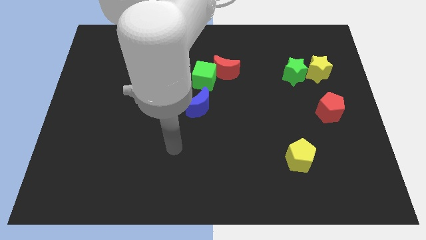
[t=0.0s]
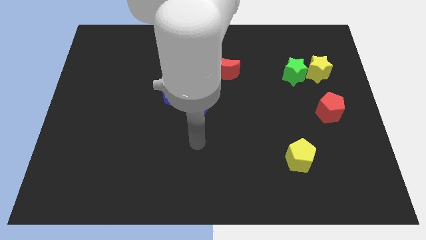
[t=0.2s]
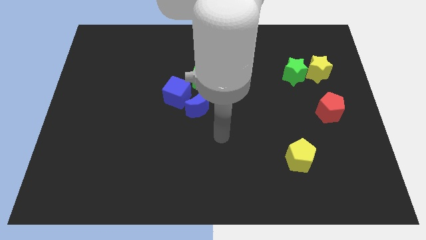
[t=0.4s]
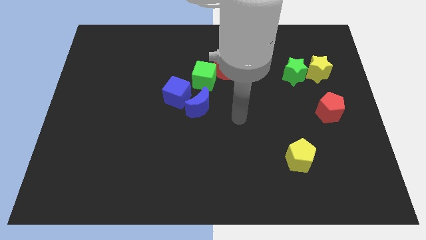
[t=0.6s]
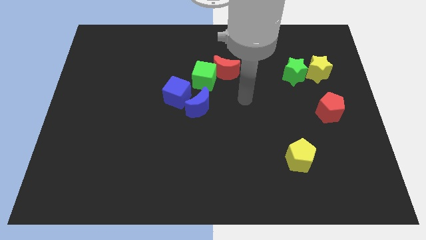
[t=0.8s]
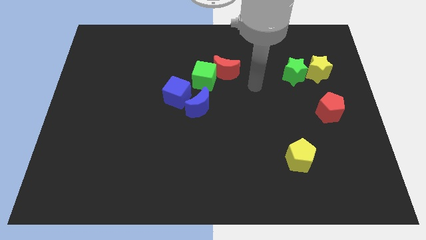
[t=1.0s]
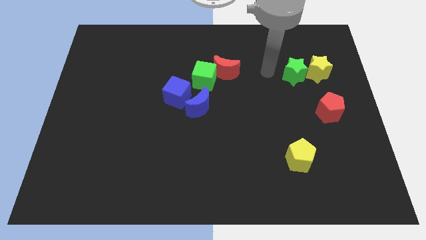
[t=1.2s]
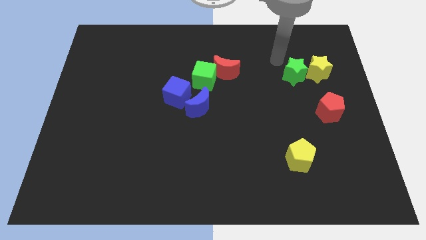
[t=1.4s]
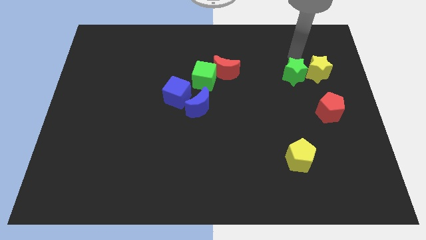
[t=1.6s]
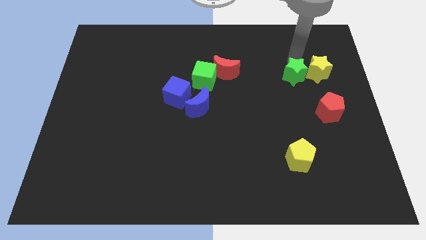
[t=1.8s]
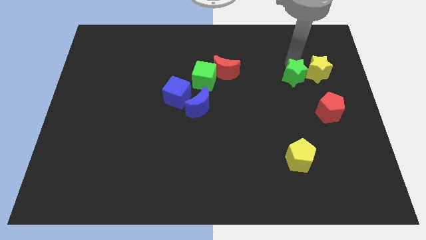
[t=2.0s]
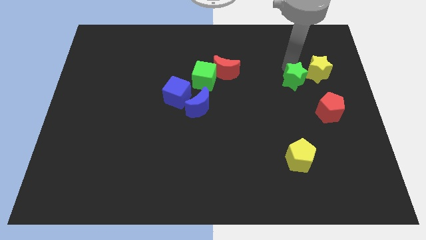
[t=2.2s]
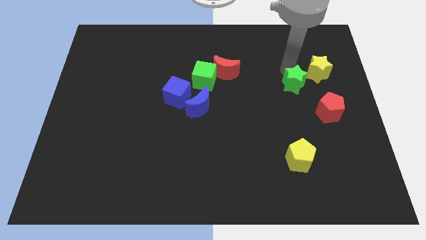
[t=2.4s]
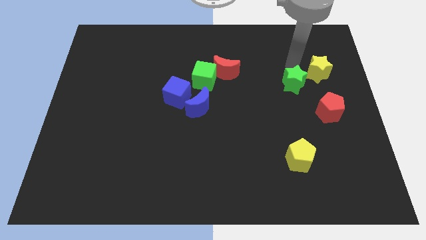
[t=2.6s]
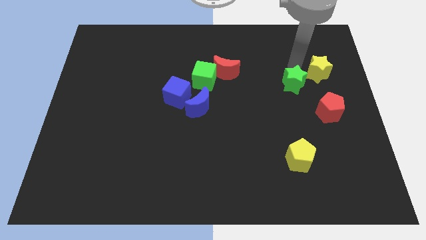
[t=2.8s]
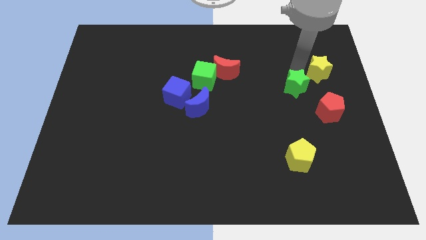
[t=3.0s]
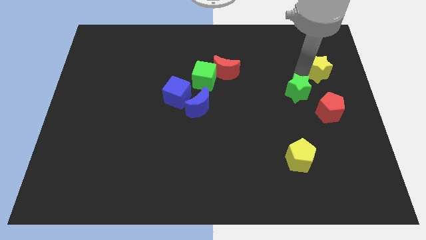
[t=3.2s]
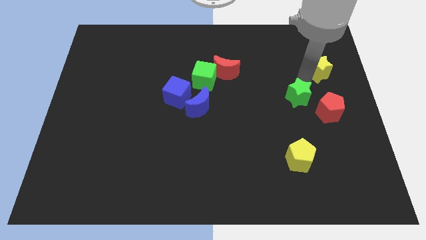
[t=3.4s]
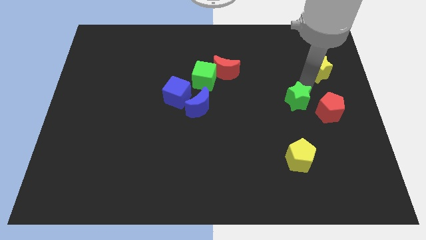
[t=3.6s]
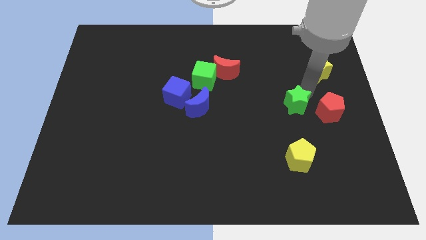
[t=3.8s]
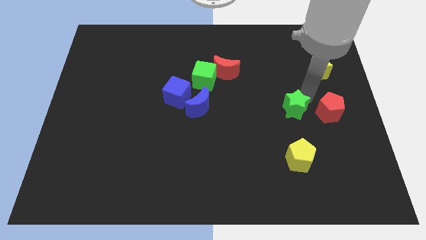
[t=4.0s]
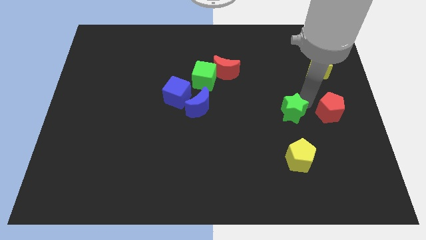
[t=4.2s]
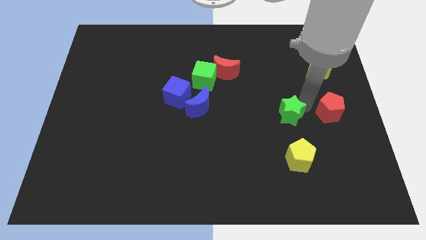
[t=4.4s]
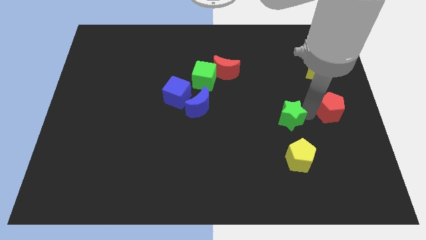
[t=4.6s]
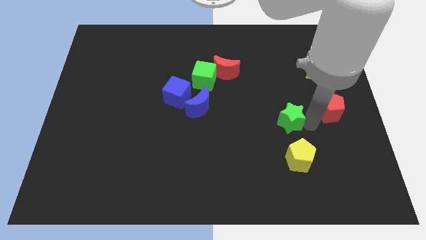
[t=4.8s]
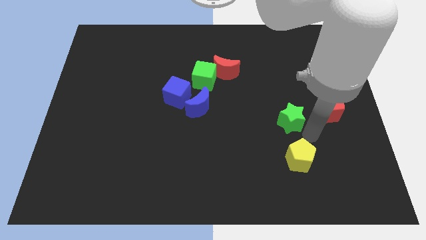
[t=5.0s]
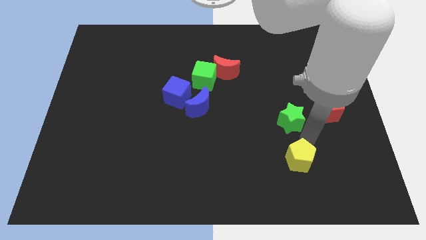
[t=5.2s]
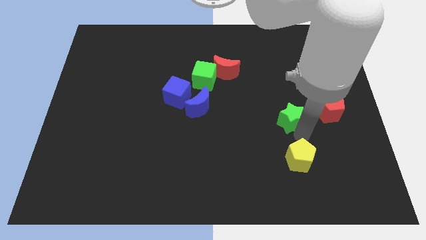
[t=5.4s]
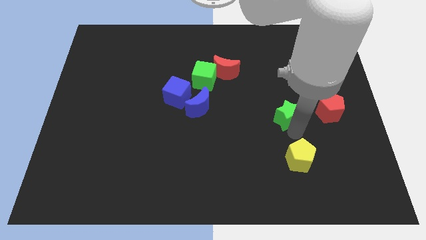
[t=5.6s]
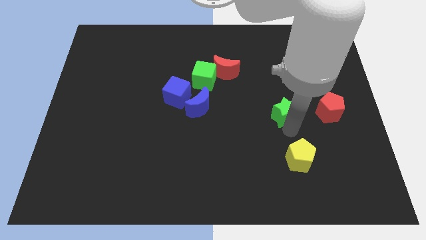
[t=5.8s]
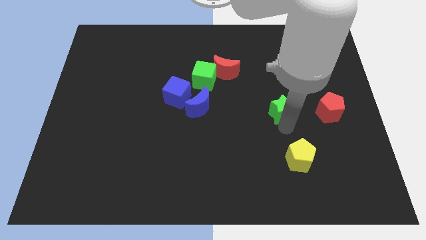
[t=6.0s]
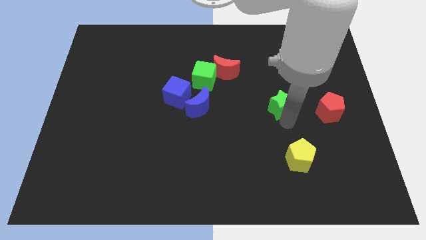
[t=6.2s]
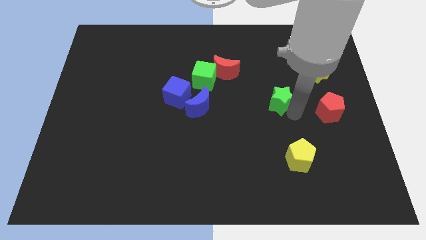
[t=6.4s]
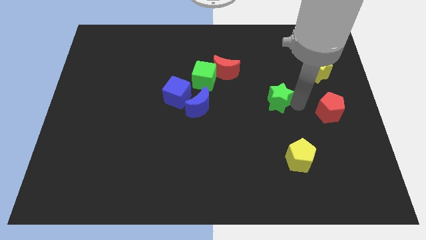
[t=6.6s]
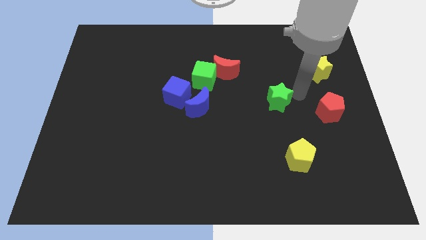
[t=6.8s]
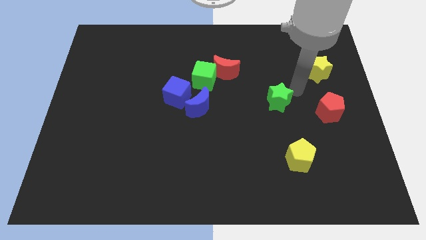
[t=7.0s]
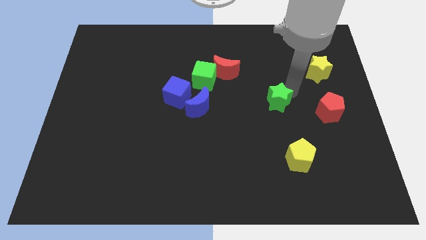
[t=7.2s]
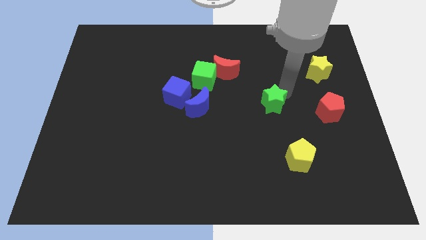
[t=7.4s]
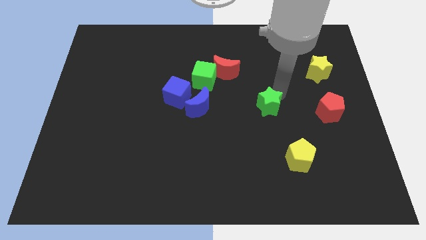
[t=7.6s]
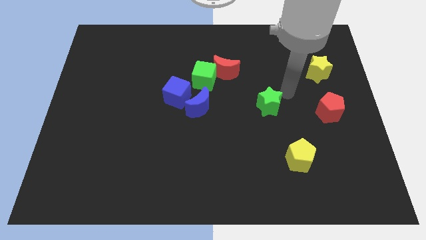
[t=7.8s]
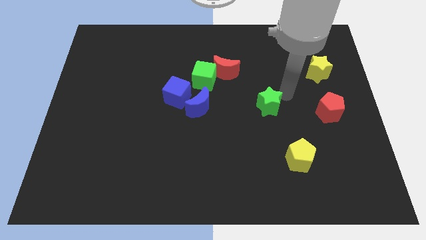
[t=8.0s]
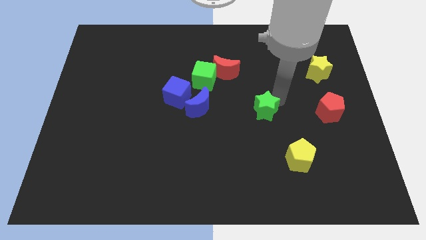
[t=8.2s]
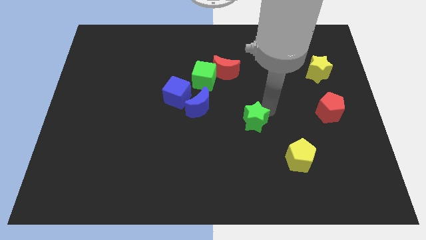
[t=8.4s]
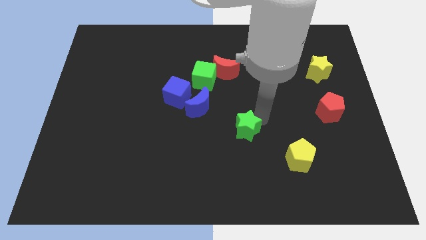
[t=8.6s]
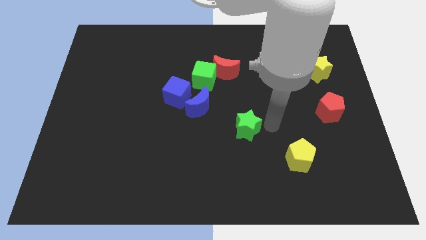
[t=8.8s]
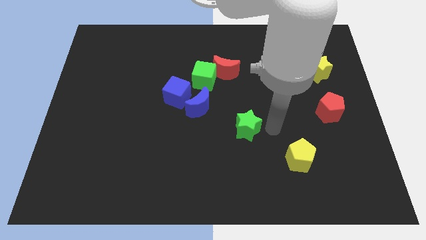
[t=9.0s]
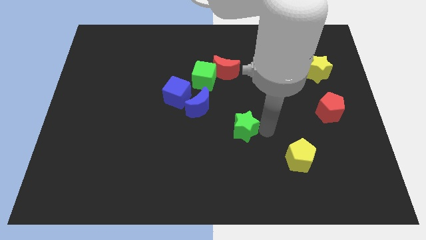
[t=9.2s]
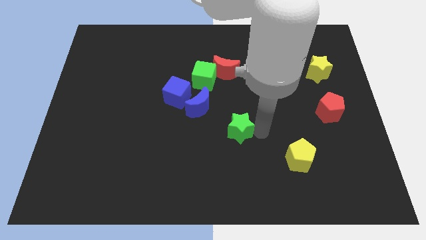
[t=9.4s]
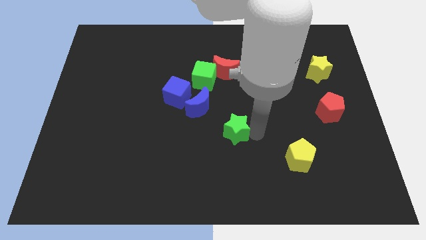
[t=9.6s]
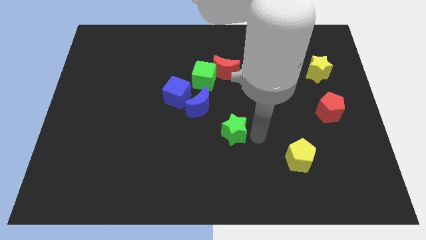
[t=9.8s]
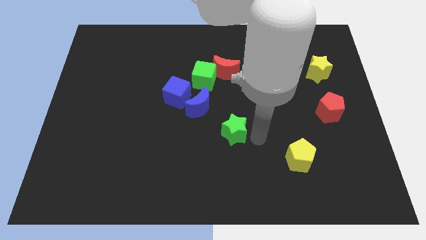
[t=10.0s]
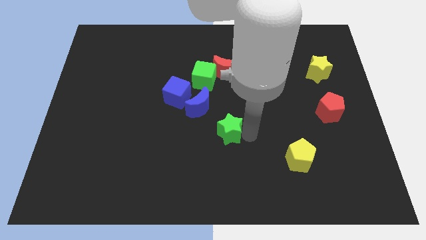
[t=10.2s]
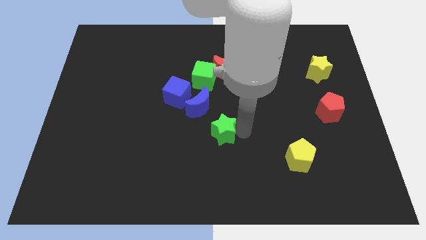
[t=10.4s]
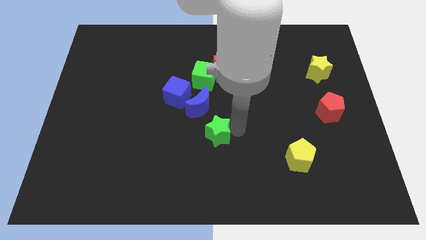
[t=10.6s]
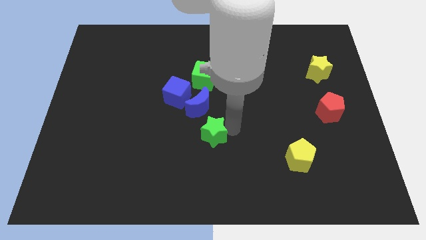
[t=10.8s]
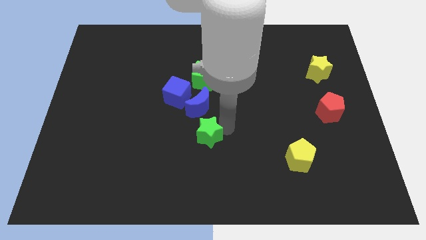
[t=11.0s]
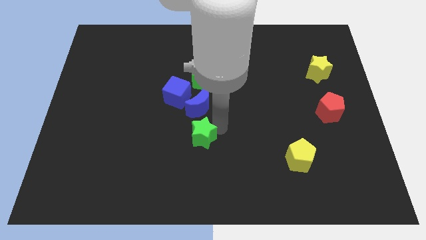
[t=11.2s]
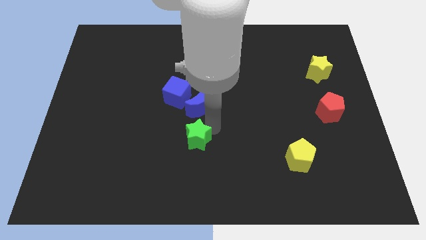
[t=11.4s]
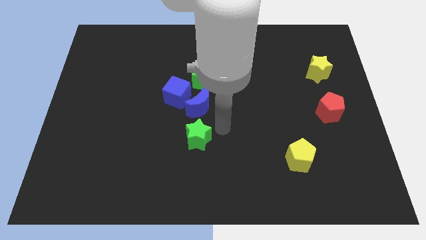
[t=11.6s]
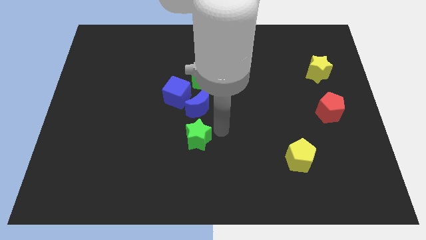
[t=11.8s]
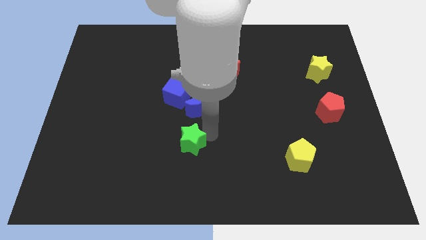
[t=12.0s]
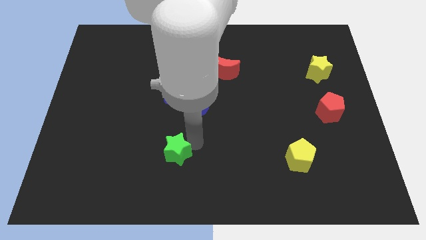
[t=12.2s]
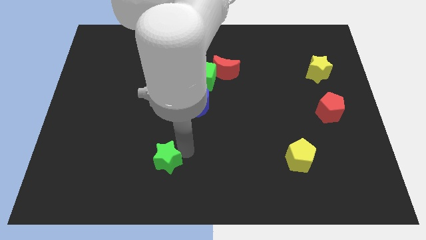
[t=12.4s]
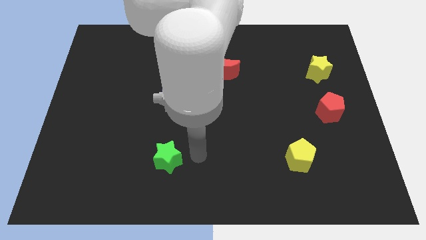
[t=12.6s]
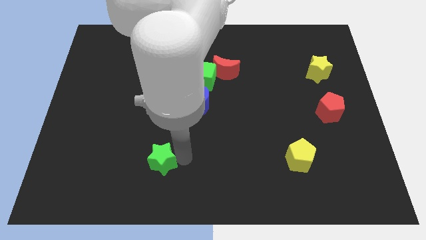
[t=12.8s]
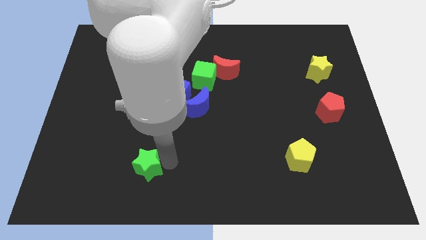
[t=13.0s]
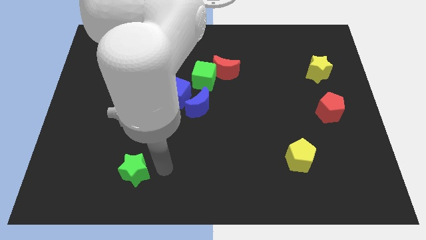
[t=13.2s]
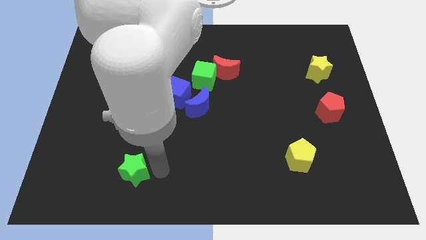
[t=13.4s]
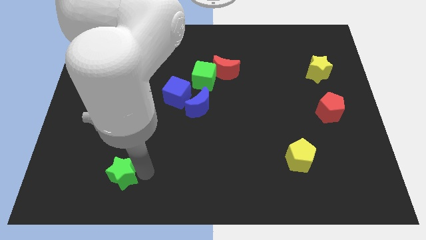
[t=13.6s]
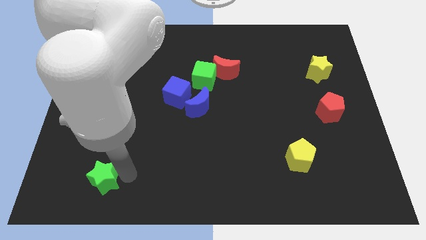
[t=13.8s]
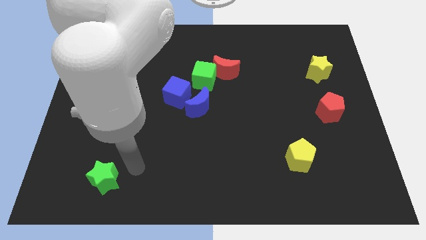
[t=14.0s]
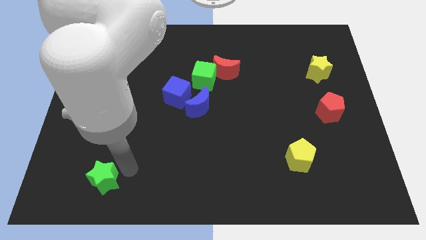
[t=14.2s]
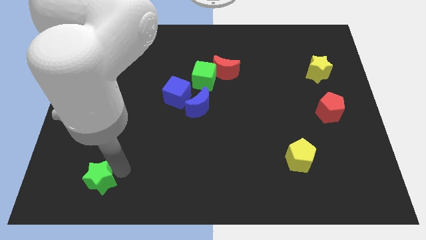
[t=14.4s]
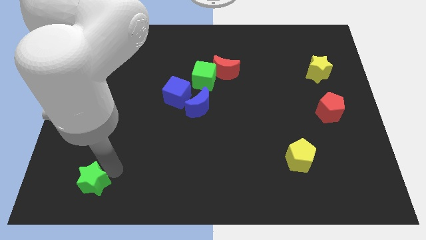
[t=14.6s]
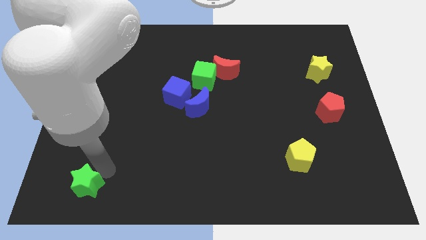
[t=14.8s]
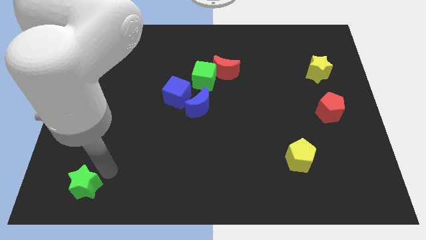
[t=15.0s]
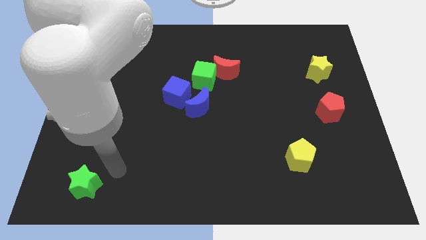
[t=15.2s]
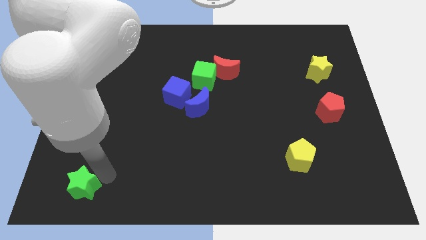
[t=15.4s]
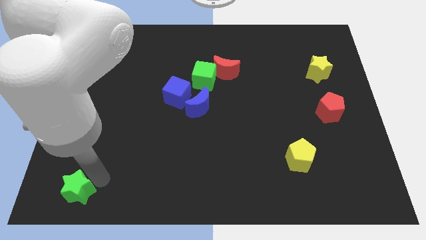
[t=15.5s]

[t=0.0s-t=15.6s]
move the green star to the bottom left of the board
